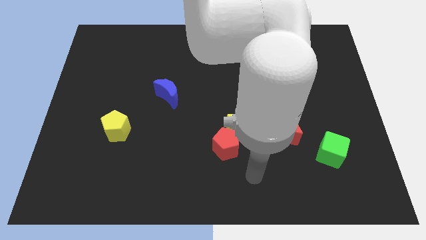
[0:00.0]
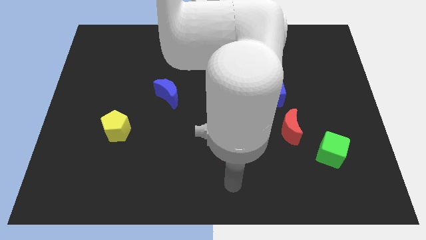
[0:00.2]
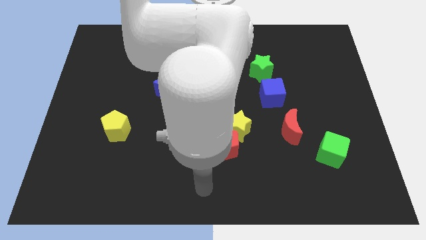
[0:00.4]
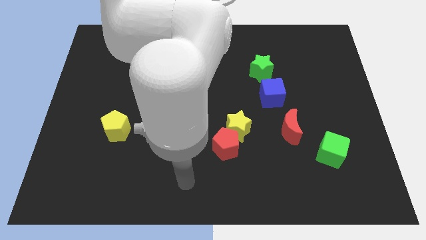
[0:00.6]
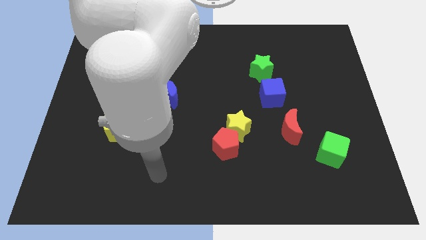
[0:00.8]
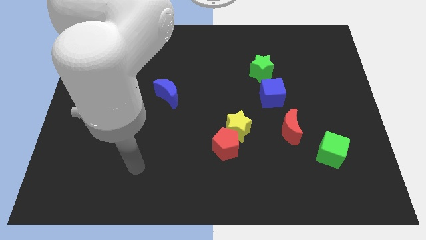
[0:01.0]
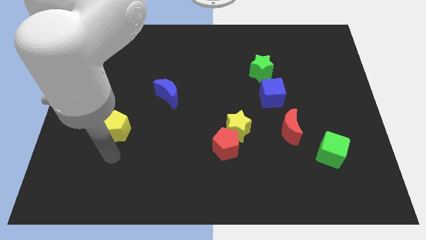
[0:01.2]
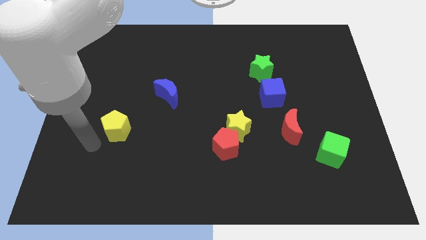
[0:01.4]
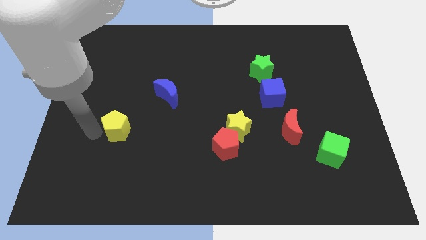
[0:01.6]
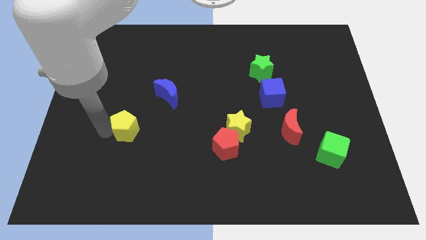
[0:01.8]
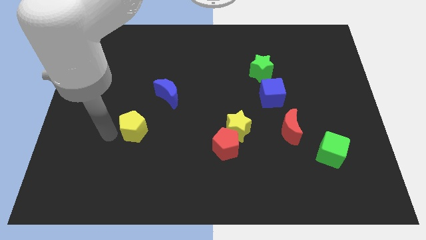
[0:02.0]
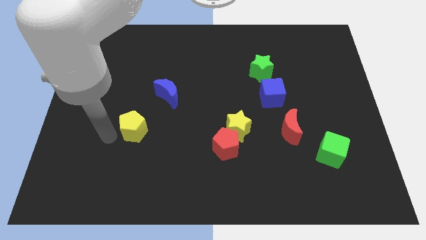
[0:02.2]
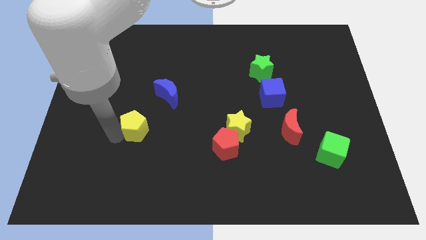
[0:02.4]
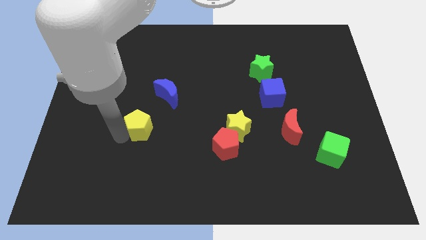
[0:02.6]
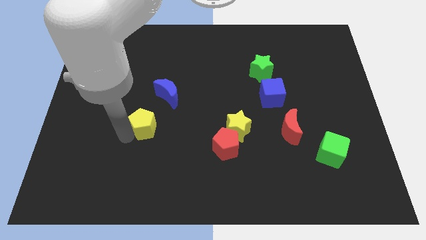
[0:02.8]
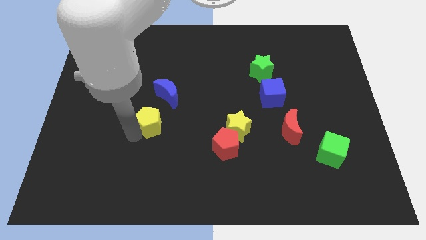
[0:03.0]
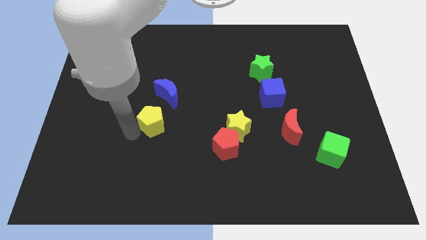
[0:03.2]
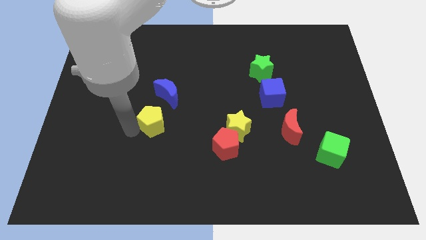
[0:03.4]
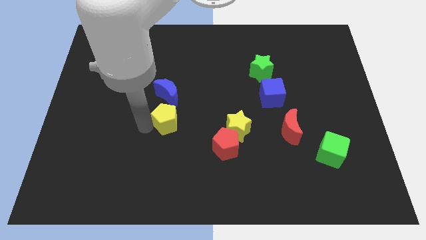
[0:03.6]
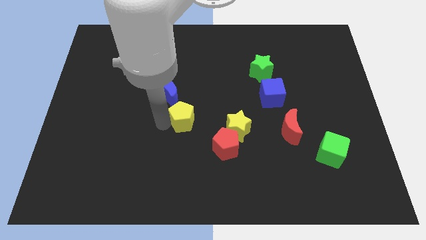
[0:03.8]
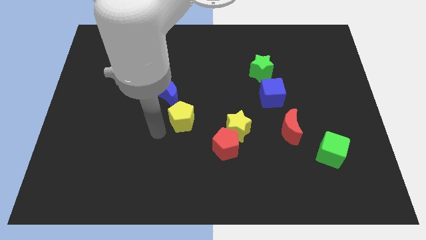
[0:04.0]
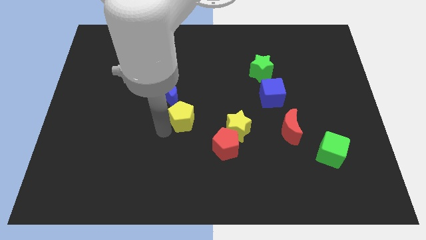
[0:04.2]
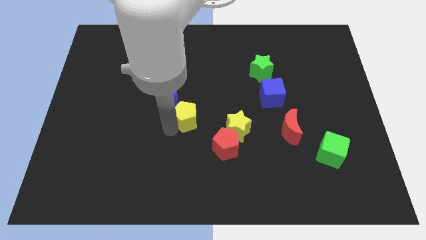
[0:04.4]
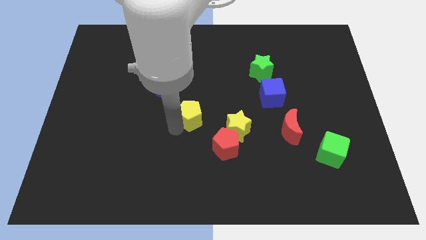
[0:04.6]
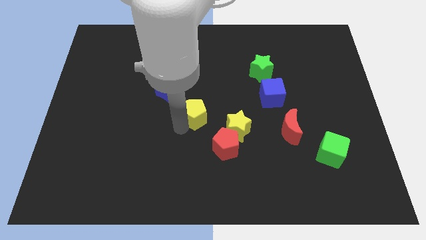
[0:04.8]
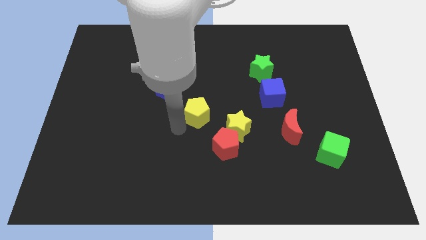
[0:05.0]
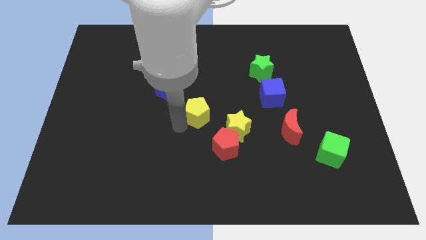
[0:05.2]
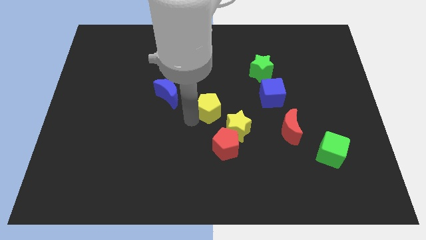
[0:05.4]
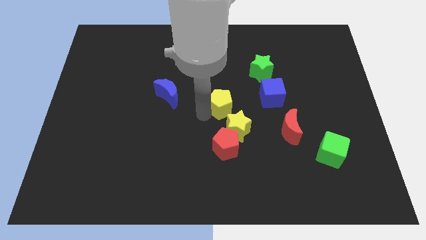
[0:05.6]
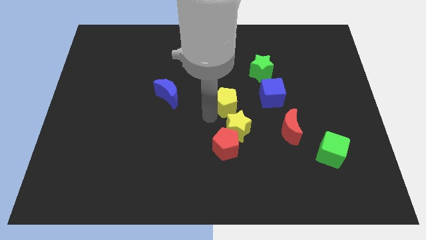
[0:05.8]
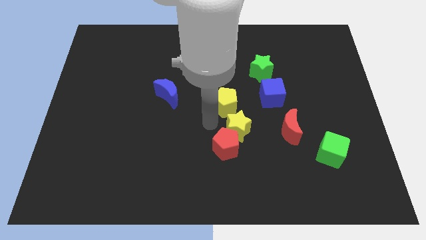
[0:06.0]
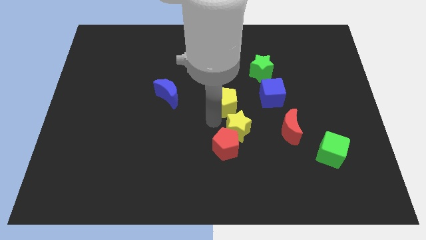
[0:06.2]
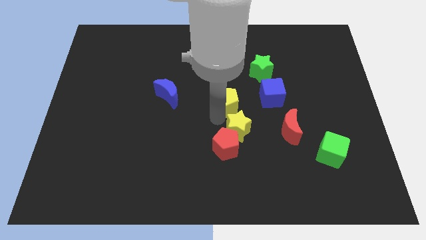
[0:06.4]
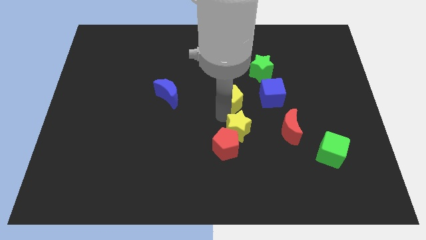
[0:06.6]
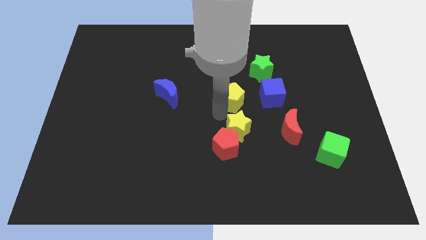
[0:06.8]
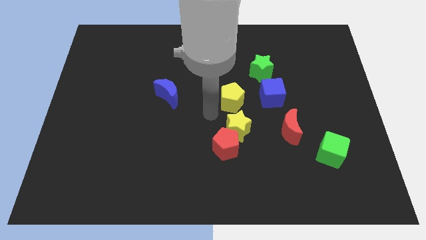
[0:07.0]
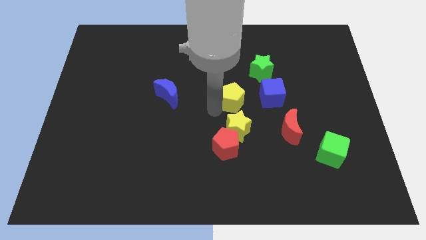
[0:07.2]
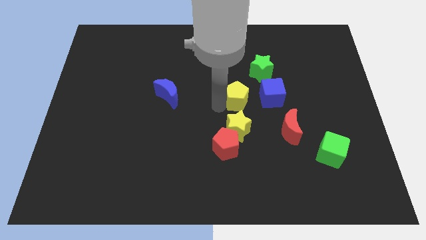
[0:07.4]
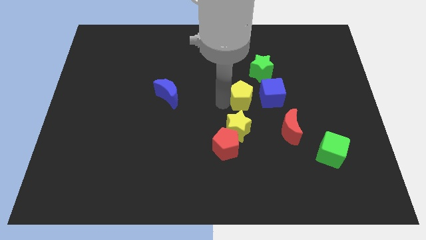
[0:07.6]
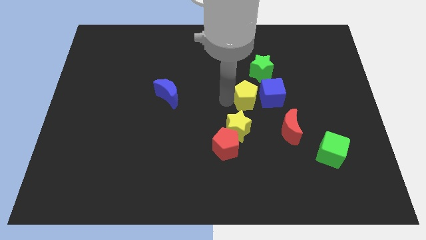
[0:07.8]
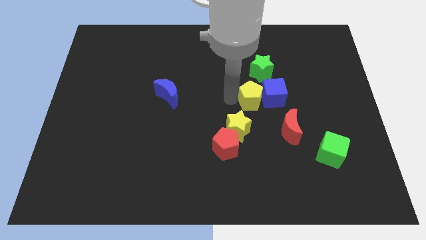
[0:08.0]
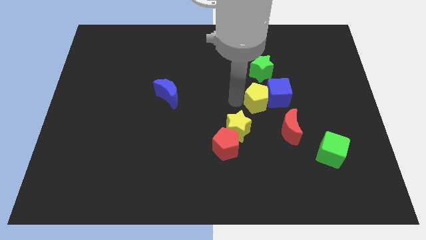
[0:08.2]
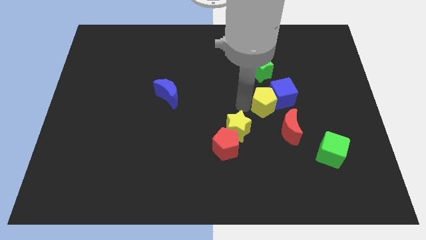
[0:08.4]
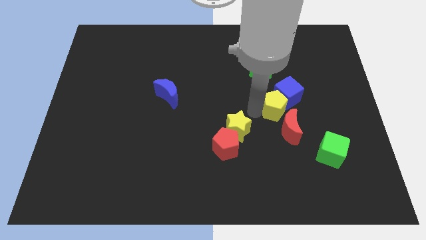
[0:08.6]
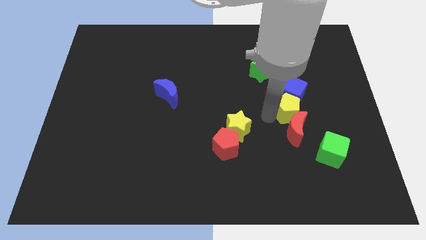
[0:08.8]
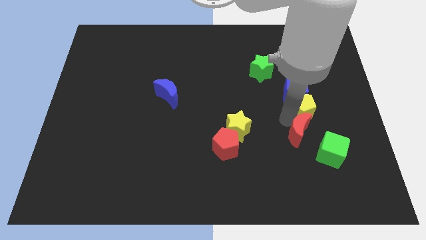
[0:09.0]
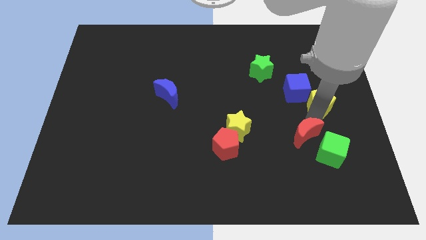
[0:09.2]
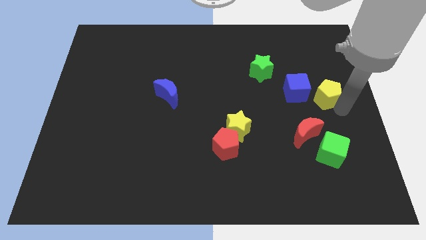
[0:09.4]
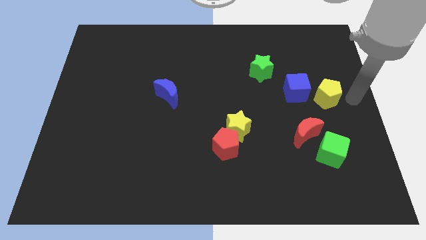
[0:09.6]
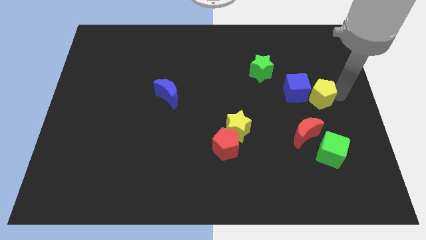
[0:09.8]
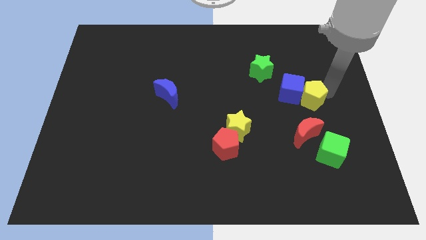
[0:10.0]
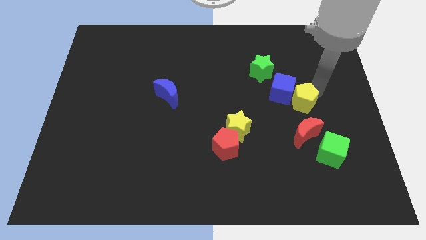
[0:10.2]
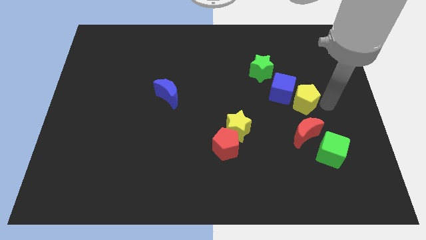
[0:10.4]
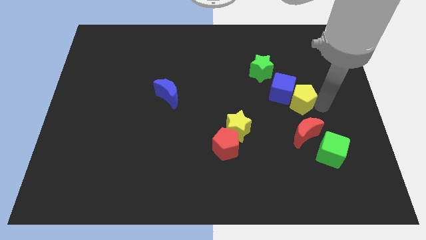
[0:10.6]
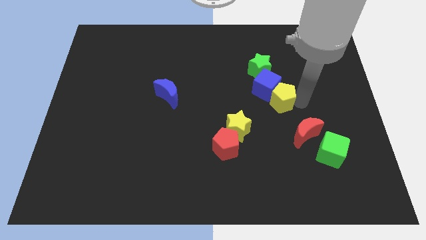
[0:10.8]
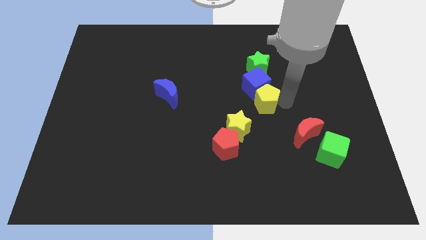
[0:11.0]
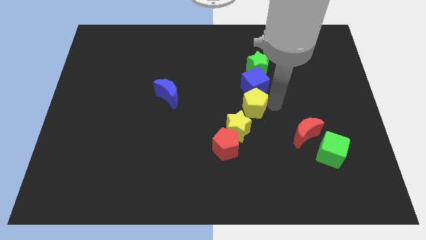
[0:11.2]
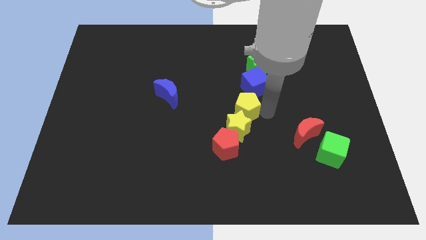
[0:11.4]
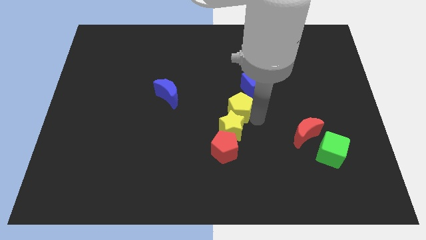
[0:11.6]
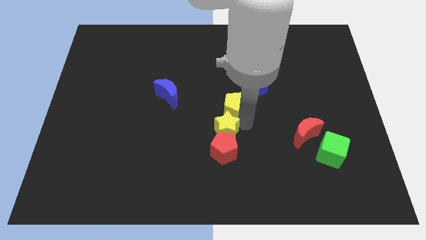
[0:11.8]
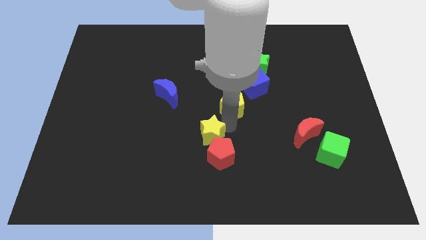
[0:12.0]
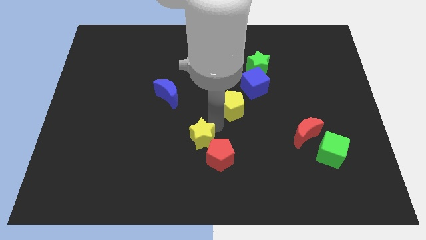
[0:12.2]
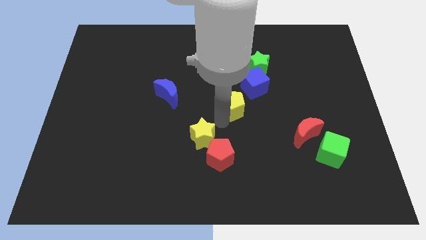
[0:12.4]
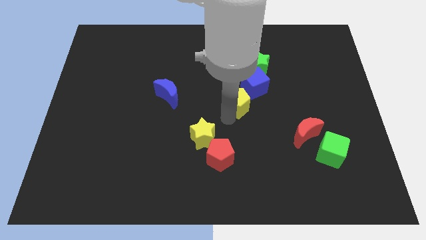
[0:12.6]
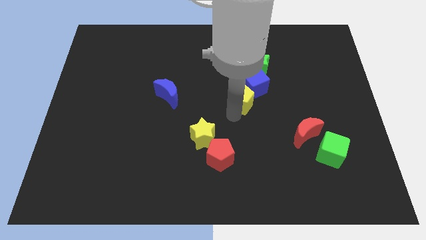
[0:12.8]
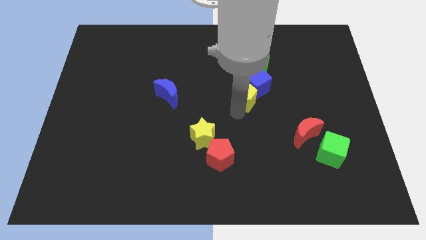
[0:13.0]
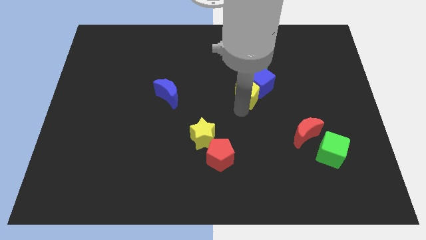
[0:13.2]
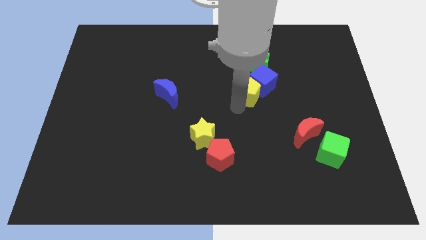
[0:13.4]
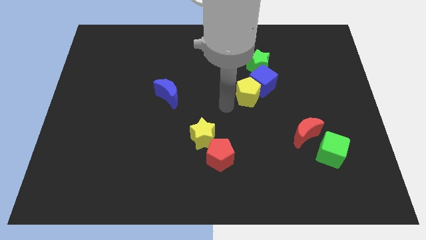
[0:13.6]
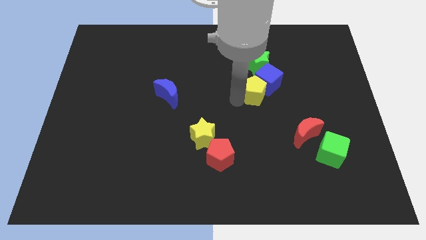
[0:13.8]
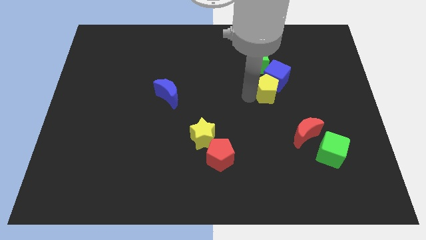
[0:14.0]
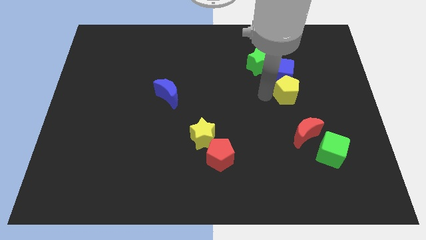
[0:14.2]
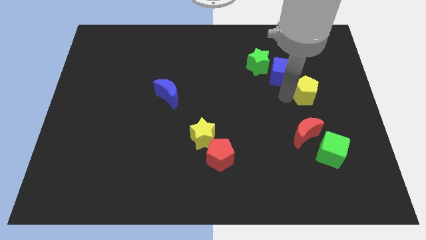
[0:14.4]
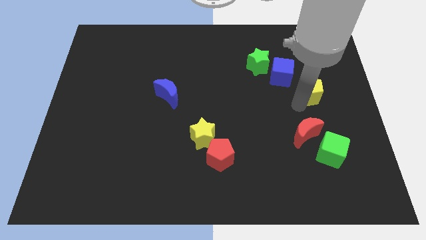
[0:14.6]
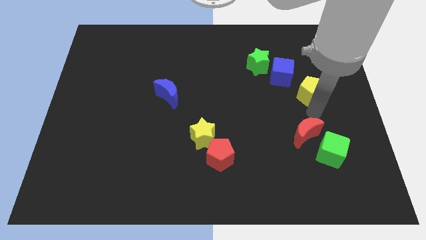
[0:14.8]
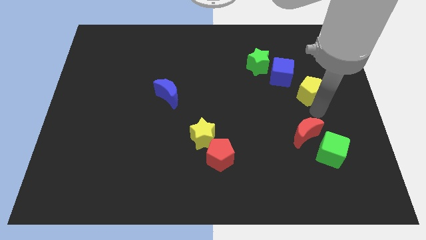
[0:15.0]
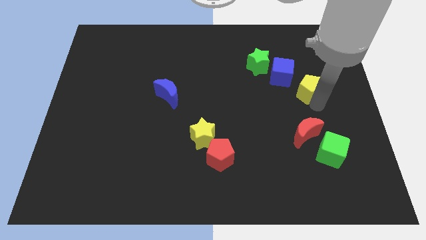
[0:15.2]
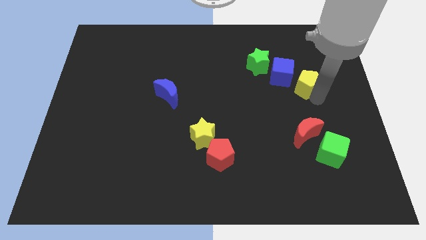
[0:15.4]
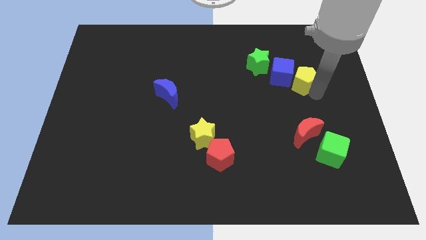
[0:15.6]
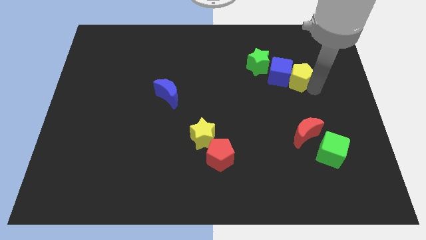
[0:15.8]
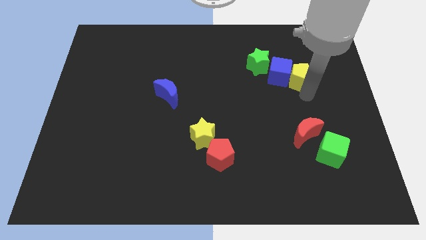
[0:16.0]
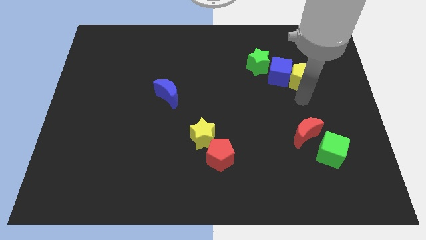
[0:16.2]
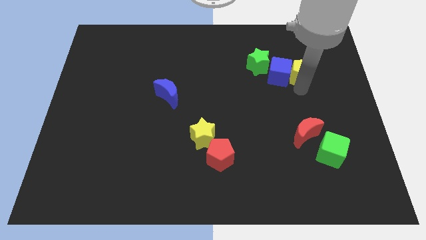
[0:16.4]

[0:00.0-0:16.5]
slide the yellow pentagon to the right of the green star
